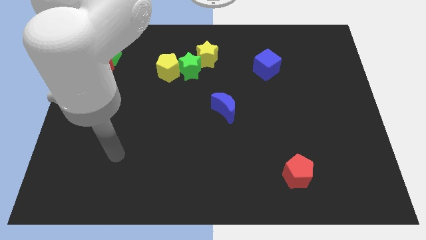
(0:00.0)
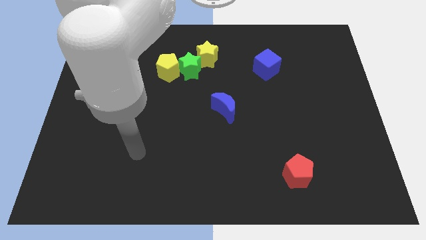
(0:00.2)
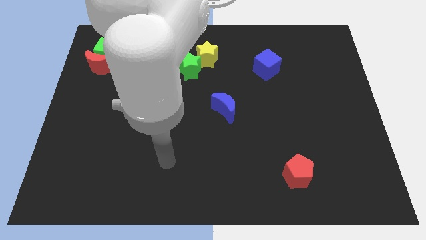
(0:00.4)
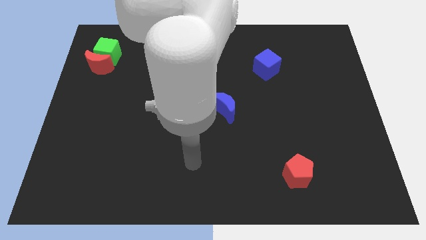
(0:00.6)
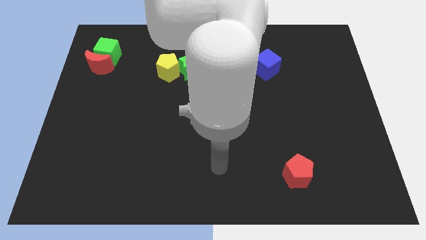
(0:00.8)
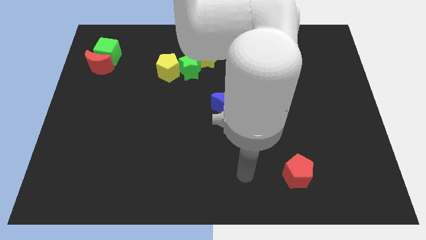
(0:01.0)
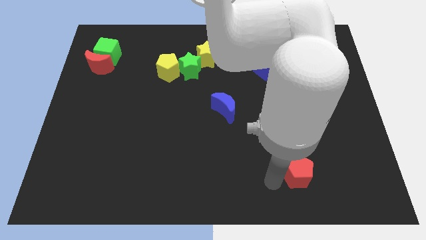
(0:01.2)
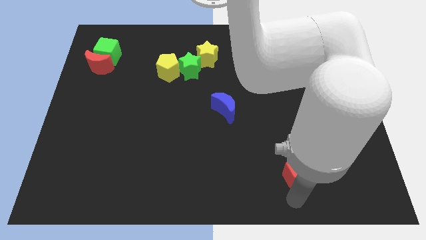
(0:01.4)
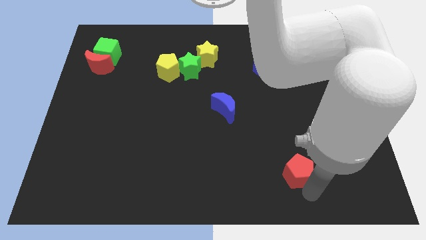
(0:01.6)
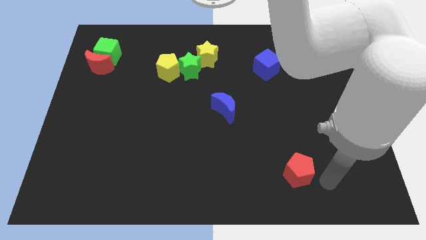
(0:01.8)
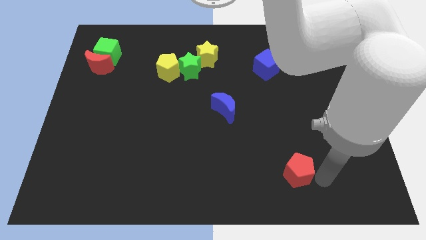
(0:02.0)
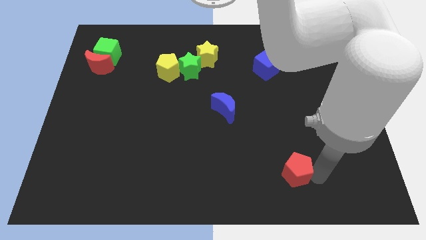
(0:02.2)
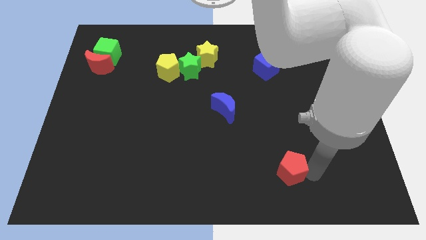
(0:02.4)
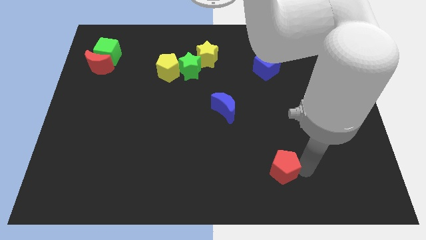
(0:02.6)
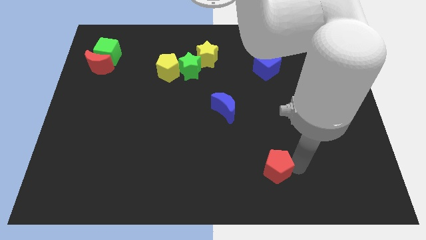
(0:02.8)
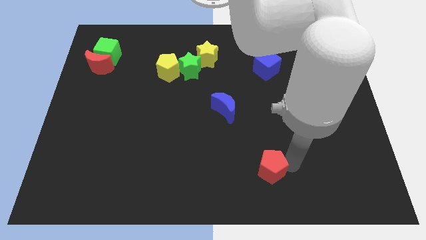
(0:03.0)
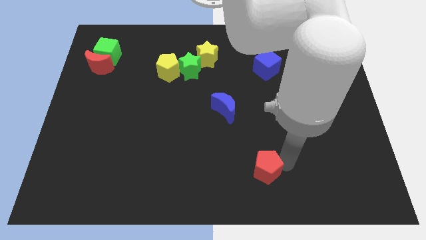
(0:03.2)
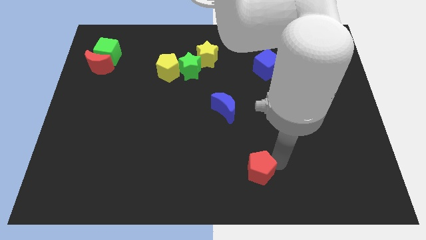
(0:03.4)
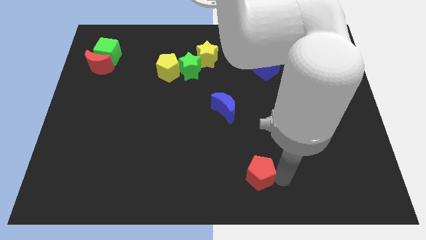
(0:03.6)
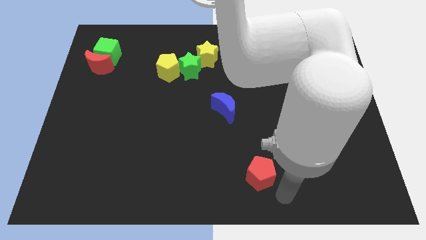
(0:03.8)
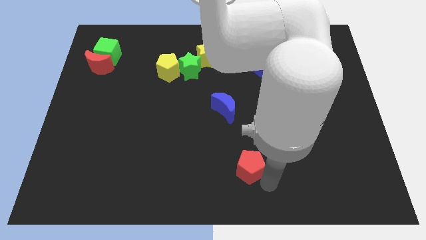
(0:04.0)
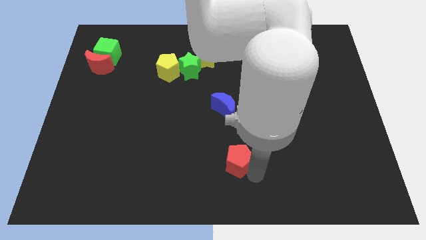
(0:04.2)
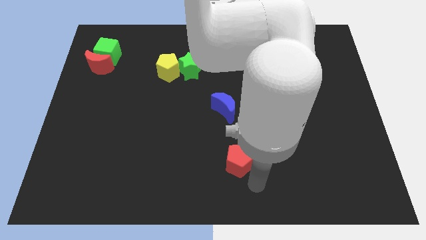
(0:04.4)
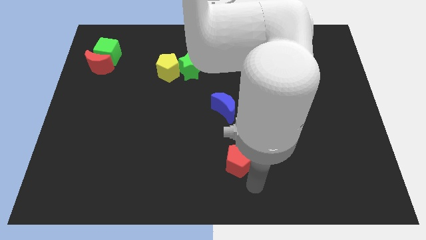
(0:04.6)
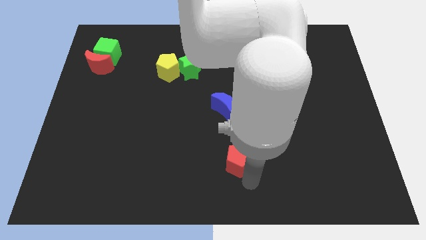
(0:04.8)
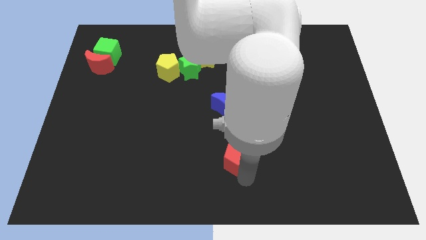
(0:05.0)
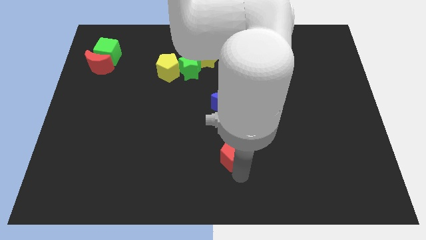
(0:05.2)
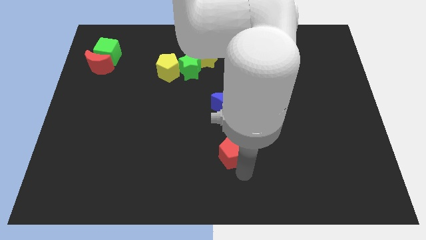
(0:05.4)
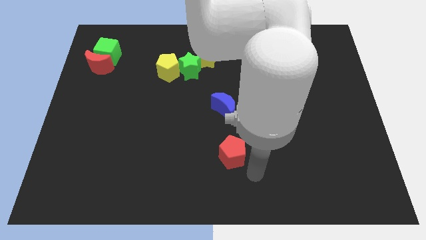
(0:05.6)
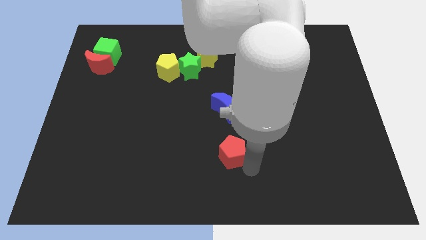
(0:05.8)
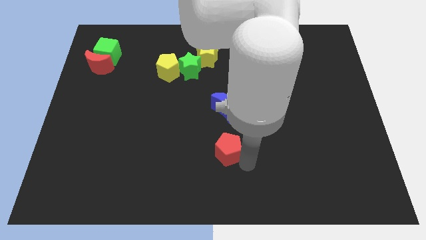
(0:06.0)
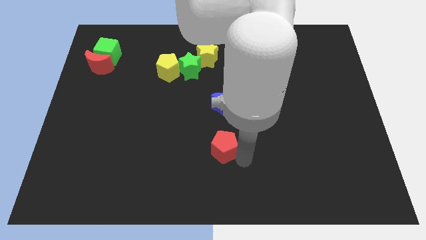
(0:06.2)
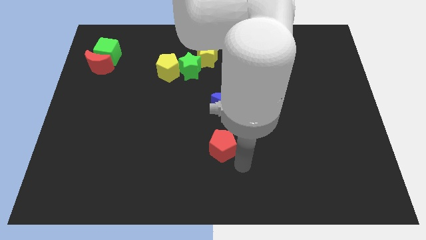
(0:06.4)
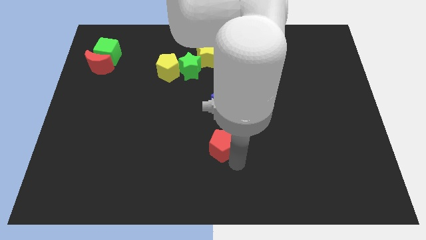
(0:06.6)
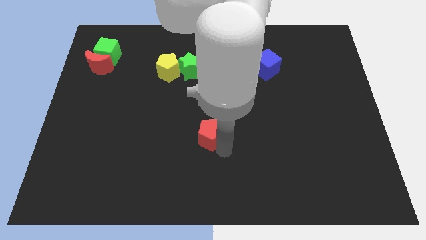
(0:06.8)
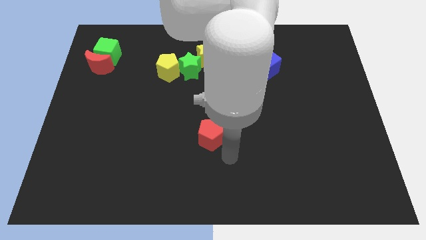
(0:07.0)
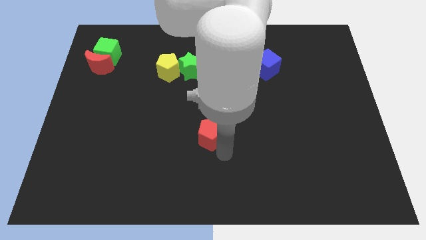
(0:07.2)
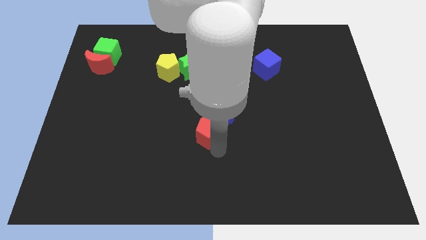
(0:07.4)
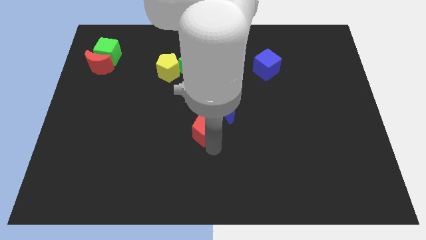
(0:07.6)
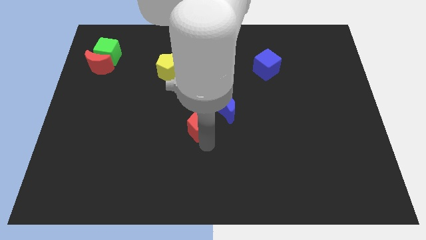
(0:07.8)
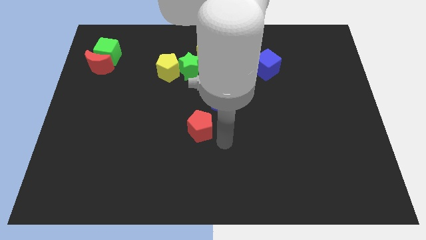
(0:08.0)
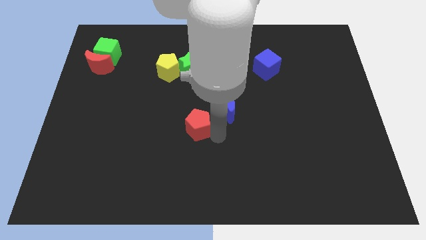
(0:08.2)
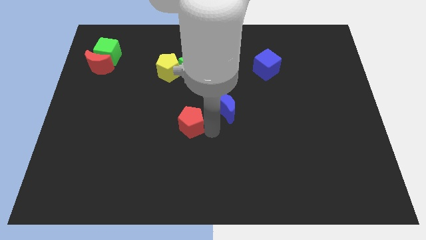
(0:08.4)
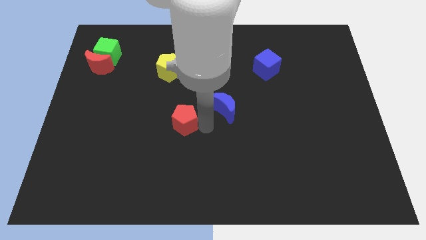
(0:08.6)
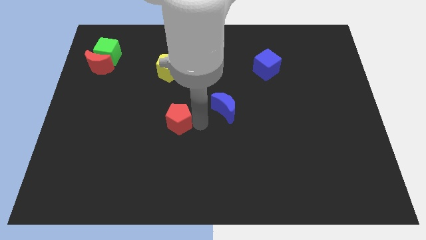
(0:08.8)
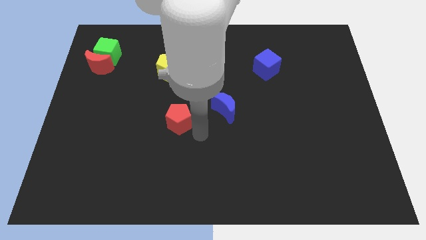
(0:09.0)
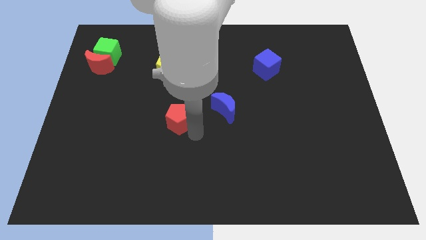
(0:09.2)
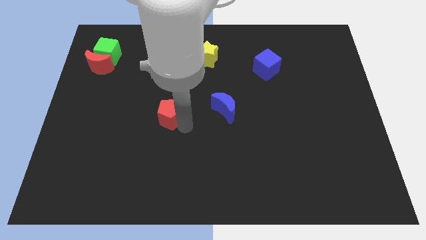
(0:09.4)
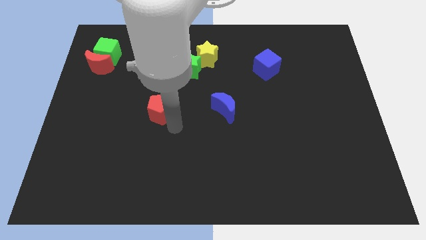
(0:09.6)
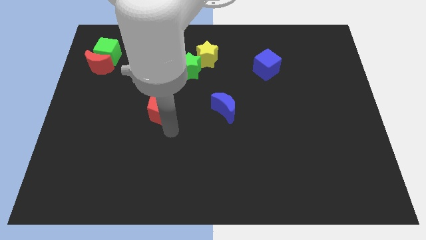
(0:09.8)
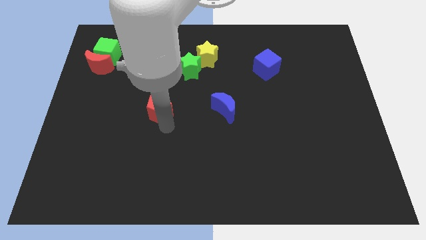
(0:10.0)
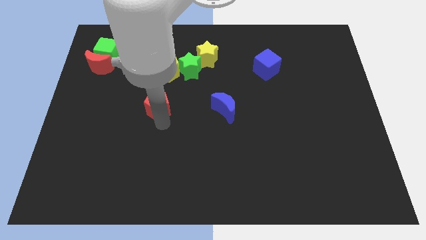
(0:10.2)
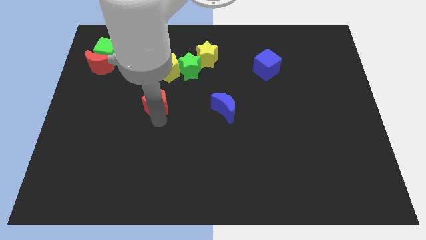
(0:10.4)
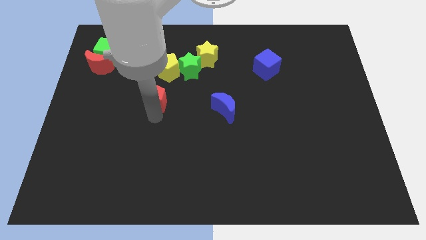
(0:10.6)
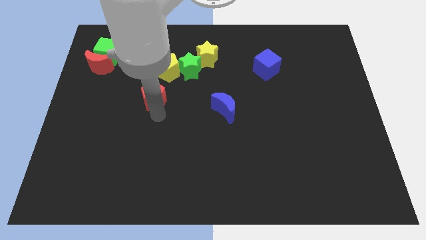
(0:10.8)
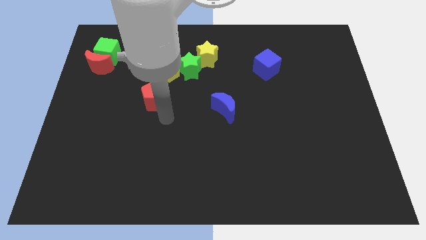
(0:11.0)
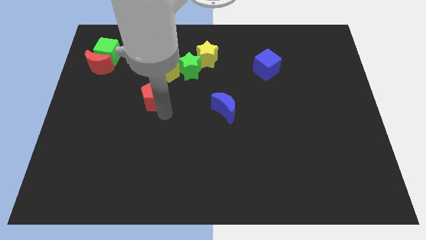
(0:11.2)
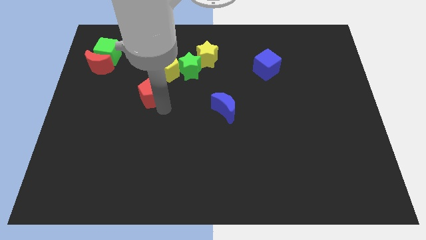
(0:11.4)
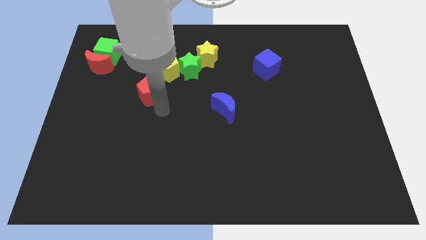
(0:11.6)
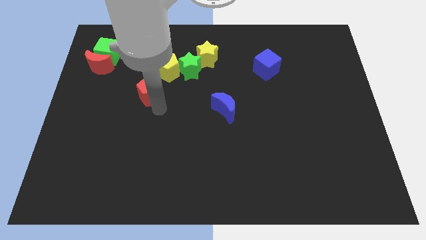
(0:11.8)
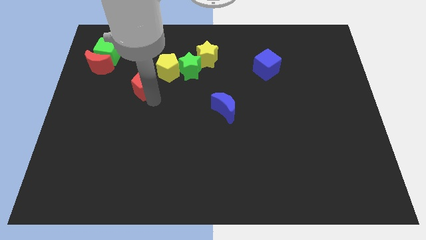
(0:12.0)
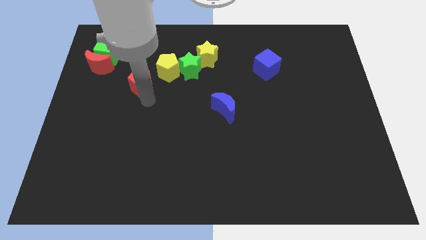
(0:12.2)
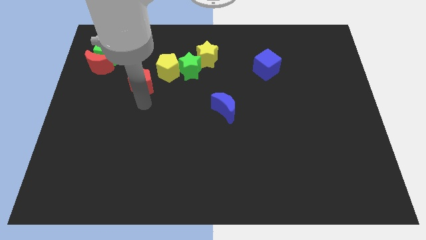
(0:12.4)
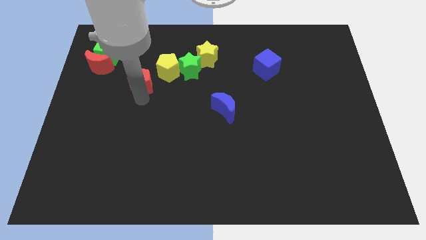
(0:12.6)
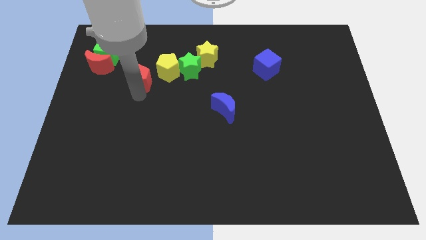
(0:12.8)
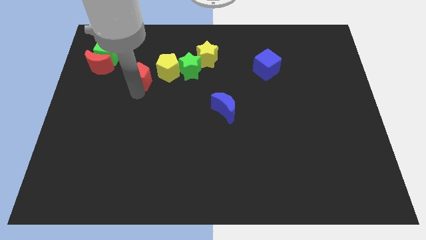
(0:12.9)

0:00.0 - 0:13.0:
move the red pentagon to the right side of the red moon

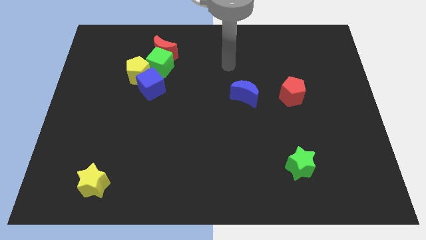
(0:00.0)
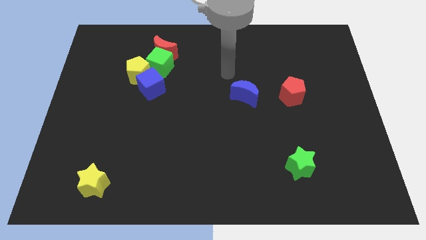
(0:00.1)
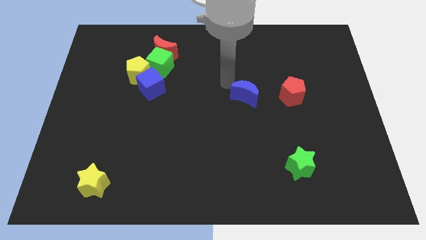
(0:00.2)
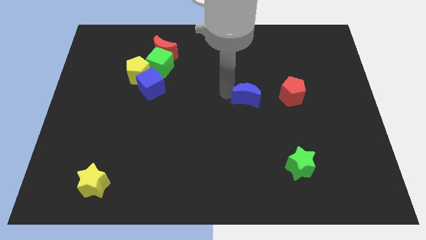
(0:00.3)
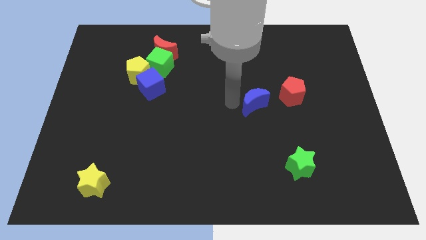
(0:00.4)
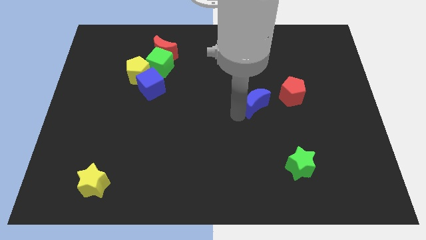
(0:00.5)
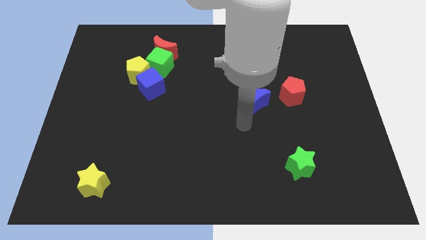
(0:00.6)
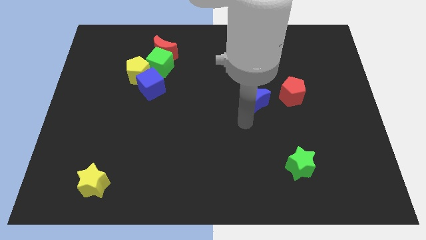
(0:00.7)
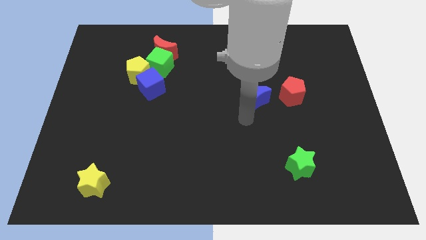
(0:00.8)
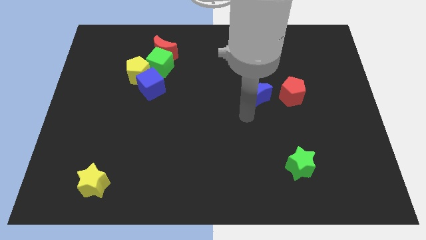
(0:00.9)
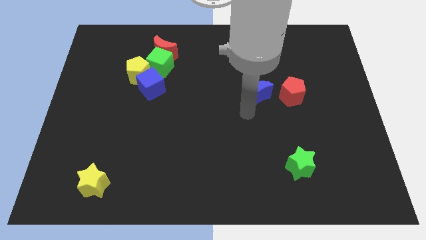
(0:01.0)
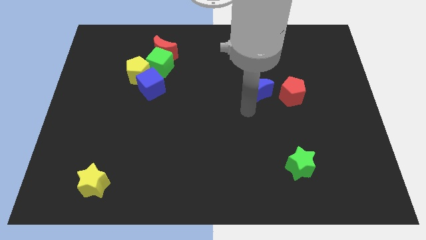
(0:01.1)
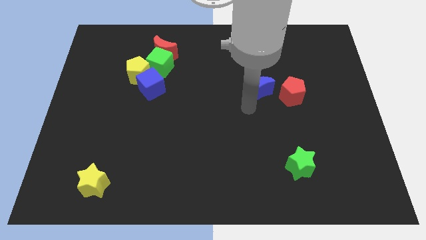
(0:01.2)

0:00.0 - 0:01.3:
slide the blue moon to the top left of the red pentagon
